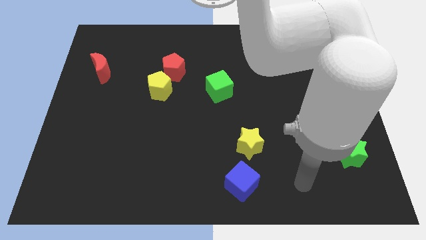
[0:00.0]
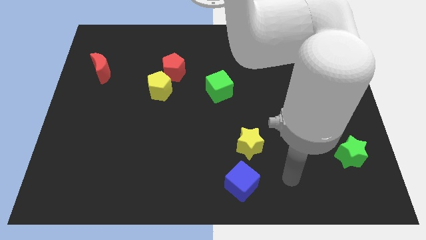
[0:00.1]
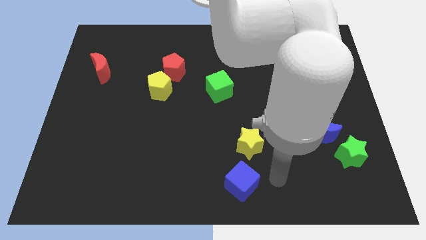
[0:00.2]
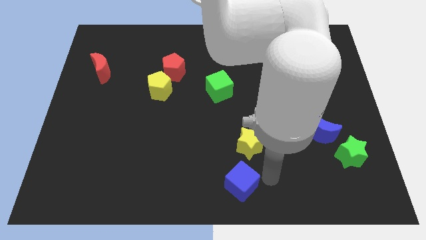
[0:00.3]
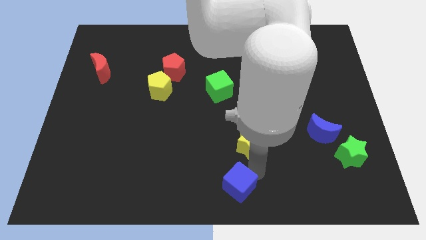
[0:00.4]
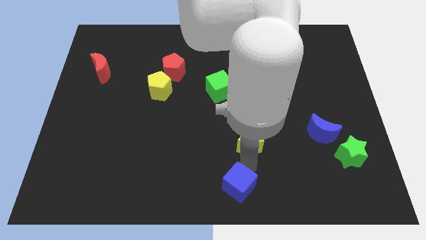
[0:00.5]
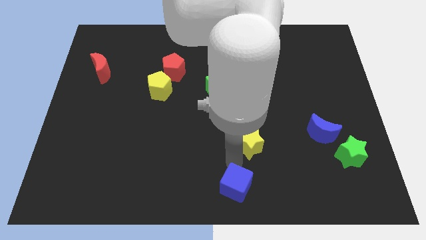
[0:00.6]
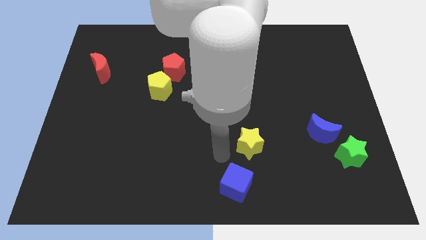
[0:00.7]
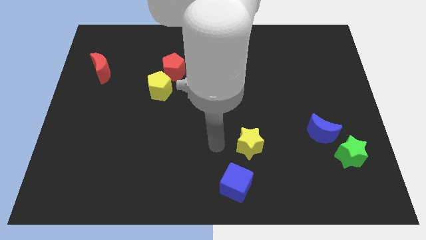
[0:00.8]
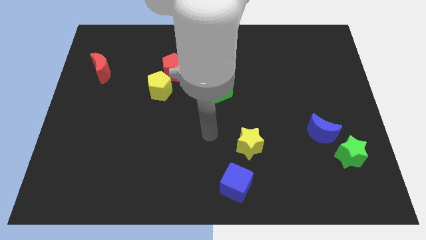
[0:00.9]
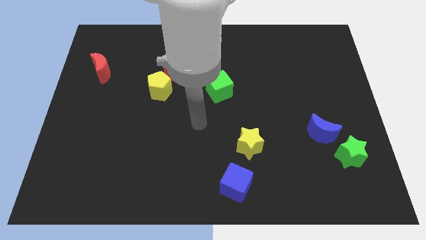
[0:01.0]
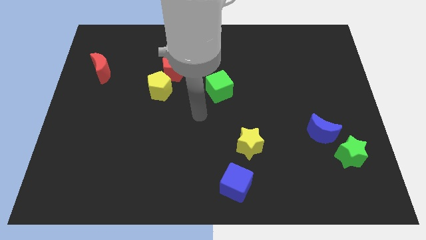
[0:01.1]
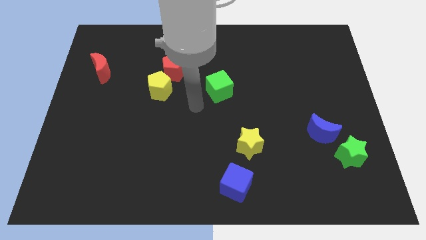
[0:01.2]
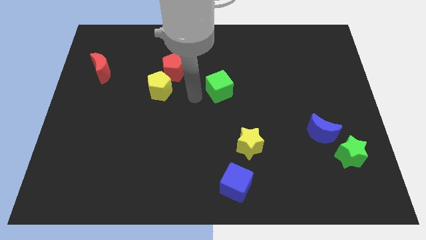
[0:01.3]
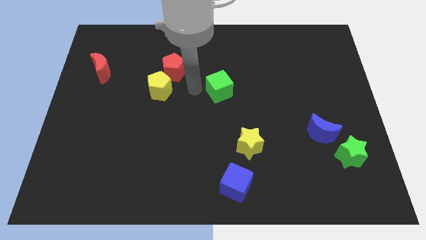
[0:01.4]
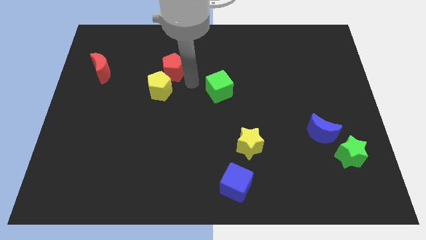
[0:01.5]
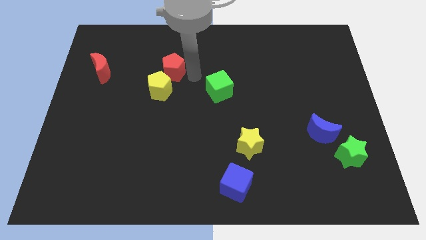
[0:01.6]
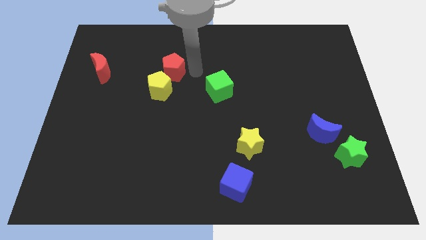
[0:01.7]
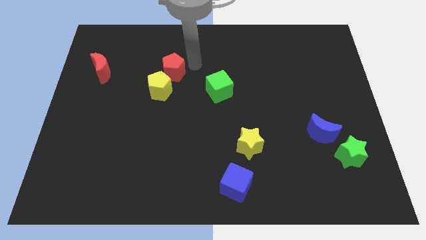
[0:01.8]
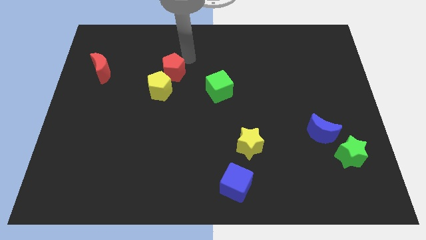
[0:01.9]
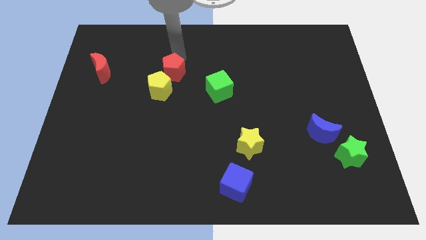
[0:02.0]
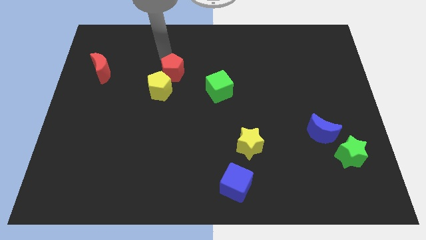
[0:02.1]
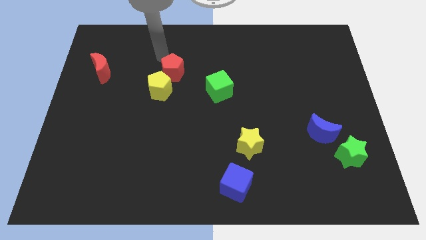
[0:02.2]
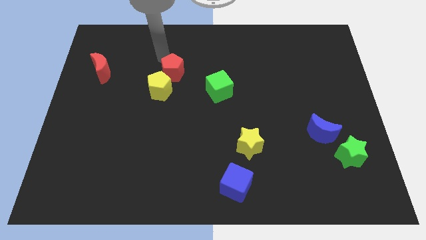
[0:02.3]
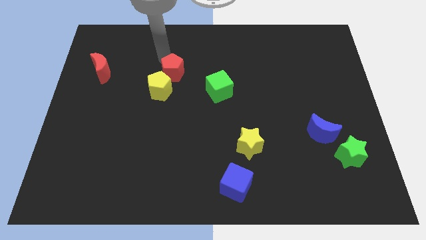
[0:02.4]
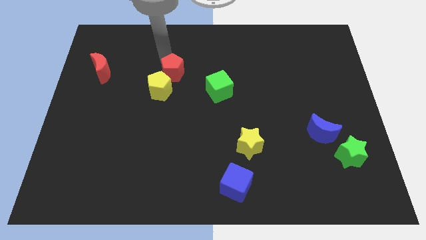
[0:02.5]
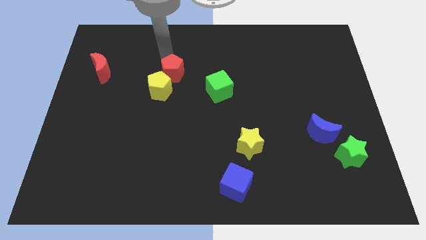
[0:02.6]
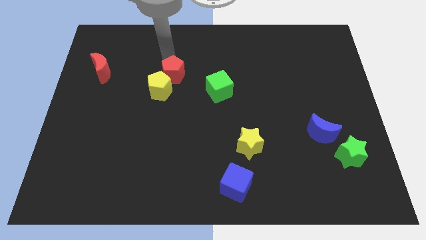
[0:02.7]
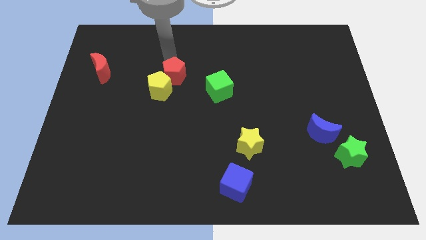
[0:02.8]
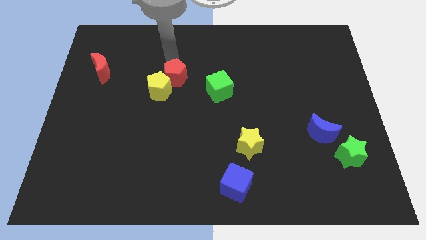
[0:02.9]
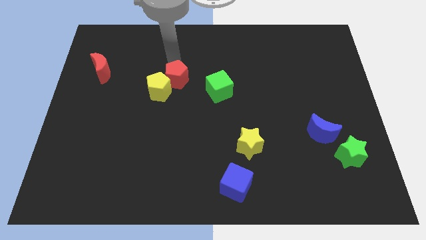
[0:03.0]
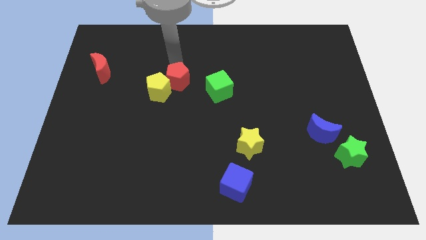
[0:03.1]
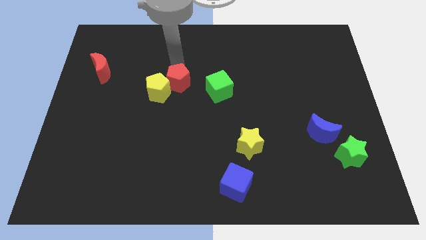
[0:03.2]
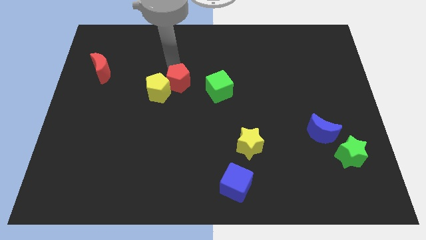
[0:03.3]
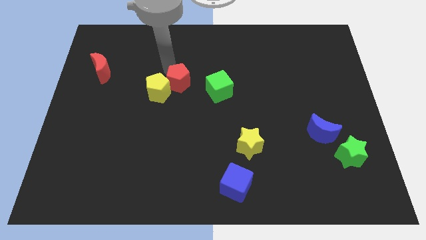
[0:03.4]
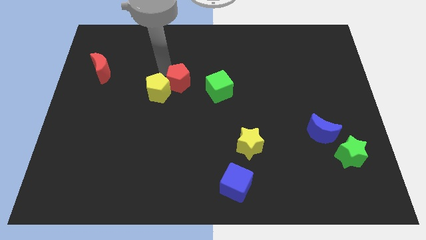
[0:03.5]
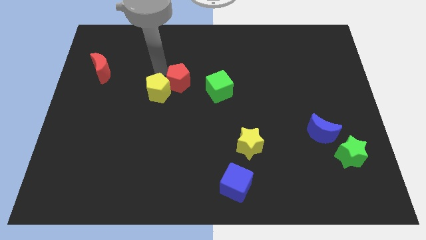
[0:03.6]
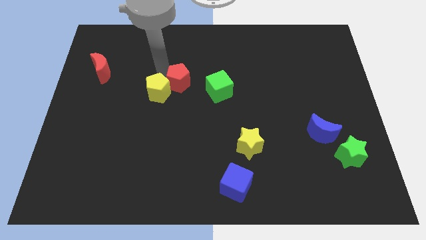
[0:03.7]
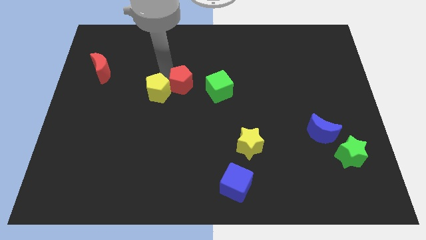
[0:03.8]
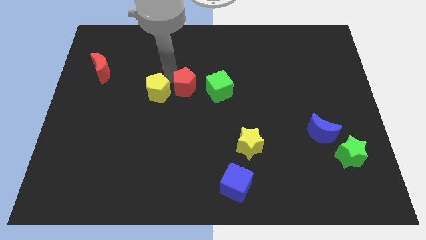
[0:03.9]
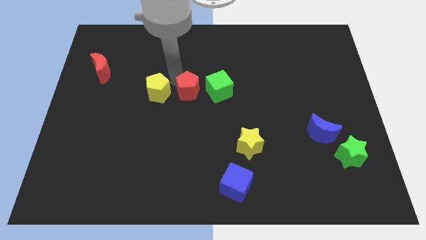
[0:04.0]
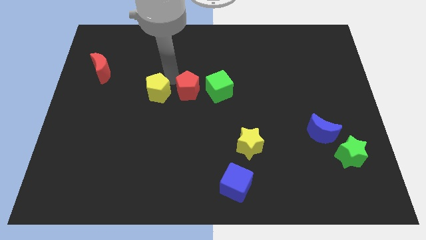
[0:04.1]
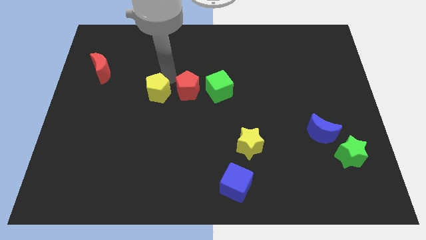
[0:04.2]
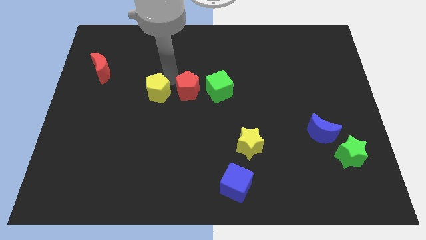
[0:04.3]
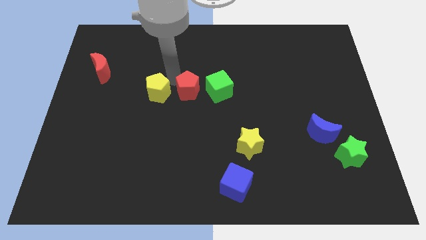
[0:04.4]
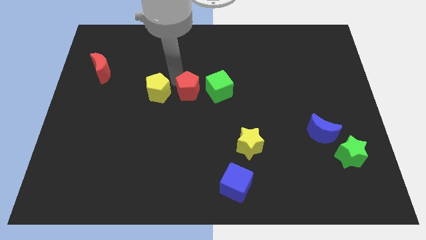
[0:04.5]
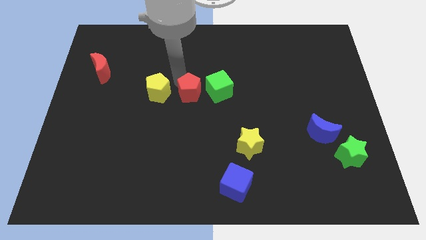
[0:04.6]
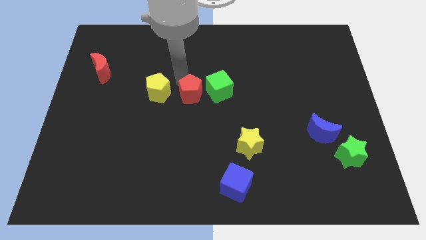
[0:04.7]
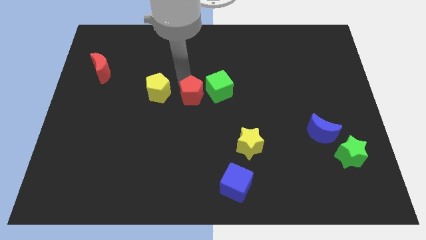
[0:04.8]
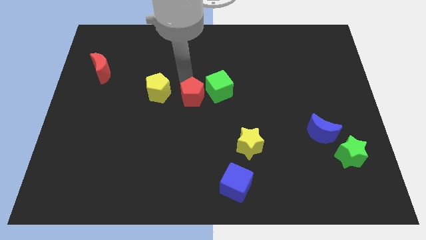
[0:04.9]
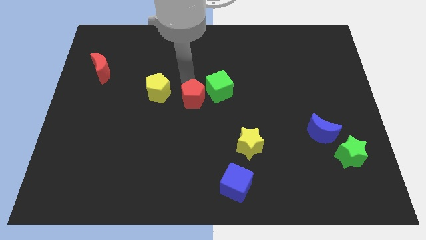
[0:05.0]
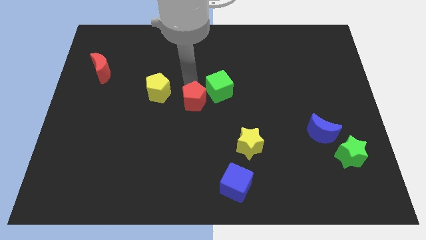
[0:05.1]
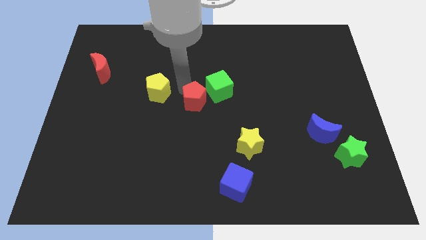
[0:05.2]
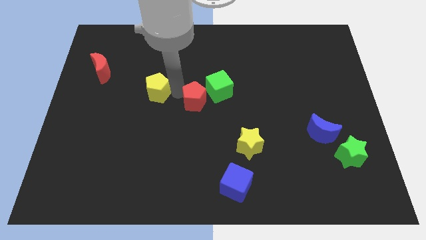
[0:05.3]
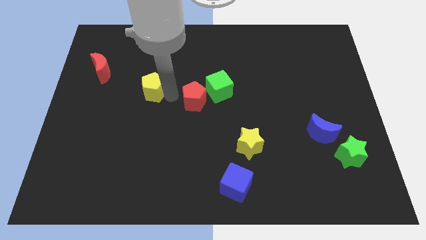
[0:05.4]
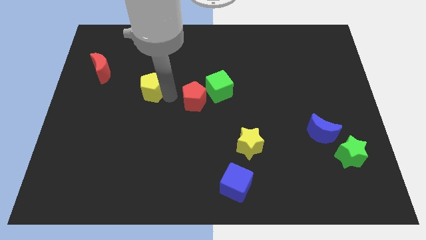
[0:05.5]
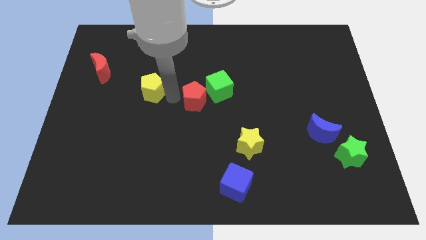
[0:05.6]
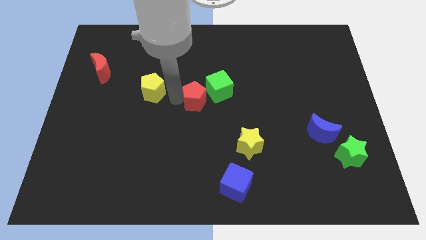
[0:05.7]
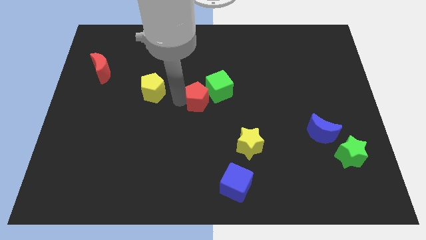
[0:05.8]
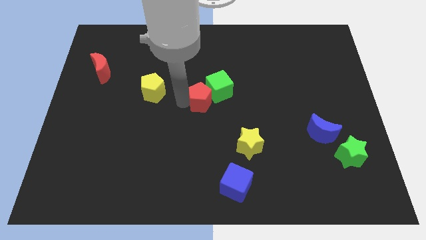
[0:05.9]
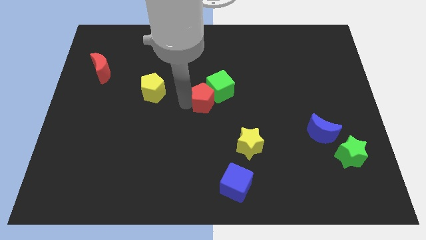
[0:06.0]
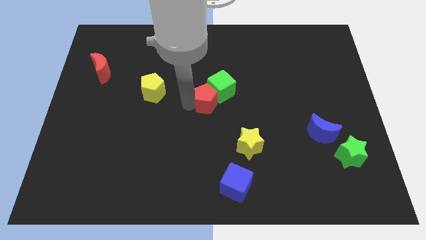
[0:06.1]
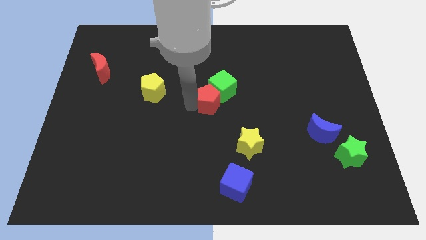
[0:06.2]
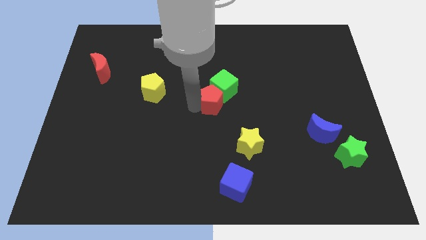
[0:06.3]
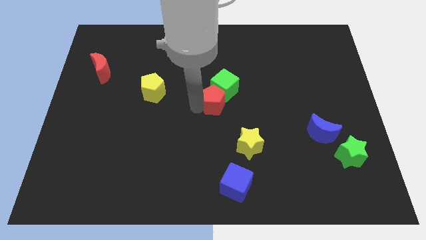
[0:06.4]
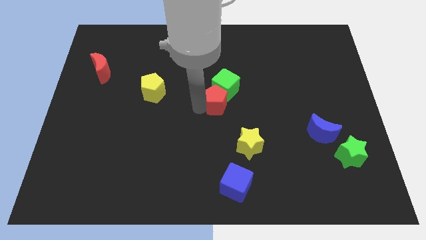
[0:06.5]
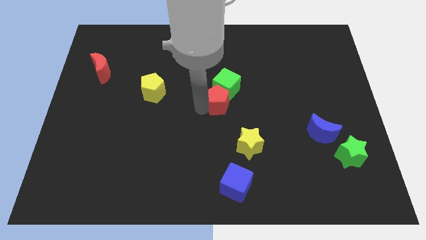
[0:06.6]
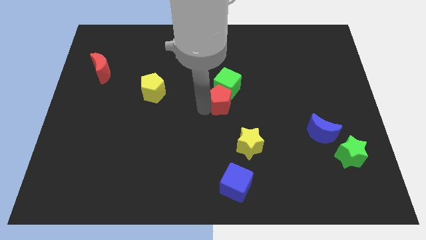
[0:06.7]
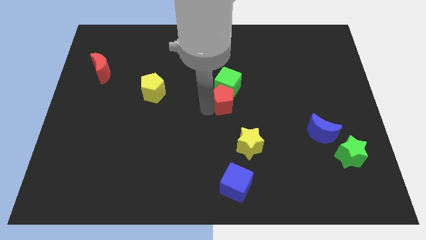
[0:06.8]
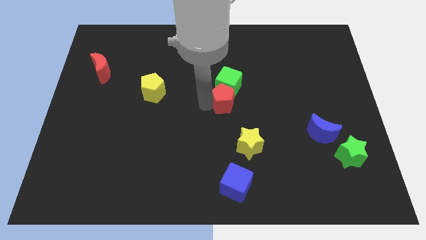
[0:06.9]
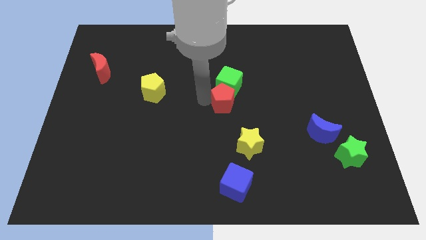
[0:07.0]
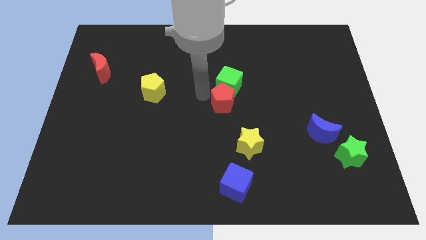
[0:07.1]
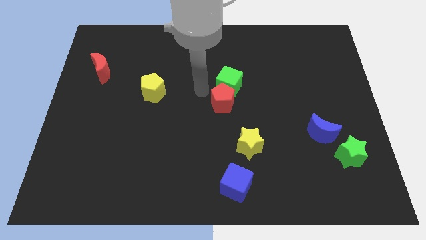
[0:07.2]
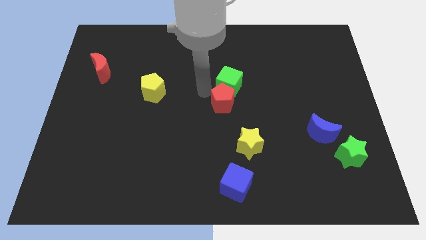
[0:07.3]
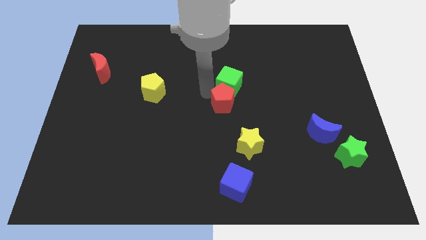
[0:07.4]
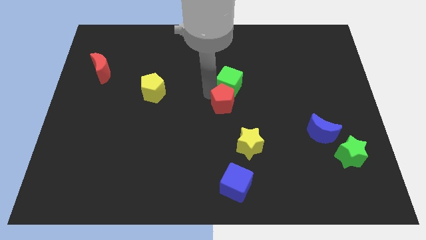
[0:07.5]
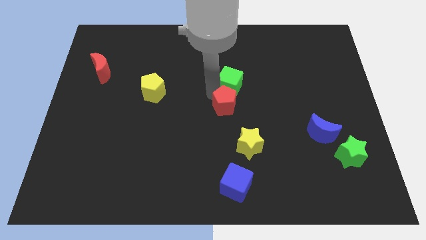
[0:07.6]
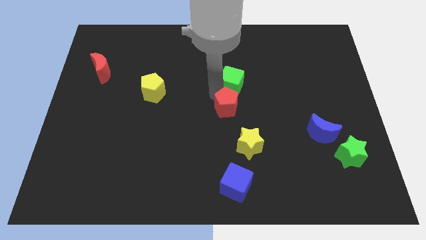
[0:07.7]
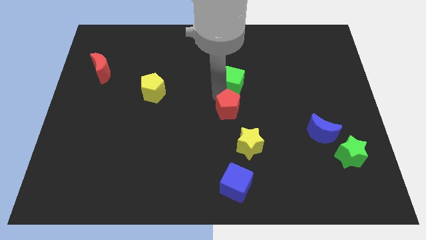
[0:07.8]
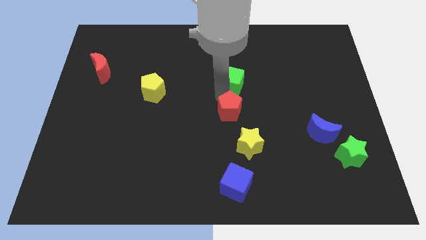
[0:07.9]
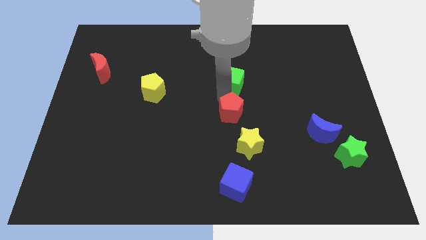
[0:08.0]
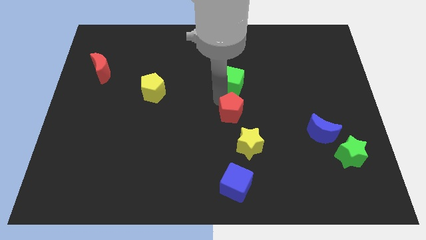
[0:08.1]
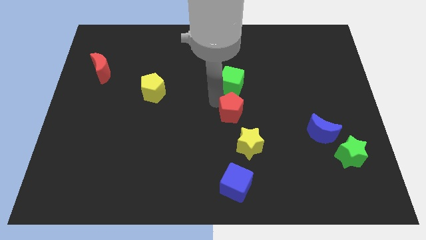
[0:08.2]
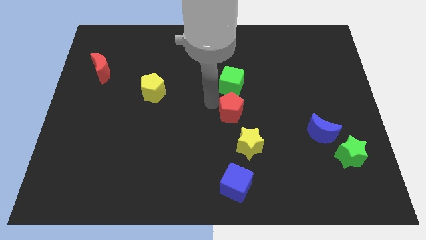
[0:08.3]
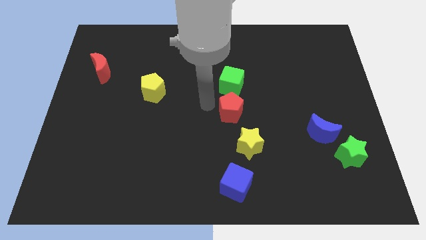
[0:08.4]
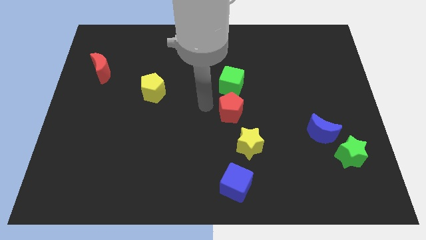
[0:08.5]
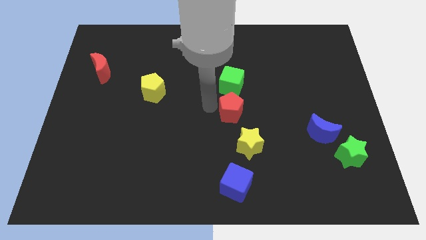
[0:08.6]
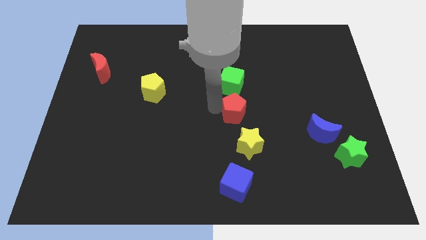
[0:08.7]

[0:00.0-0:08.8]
slide the red pentagon down and then to the right
